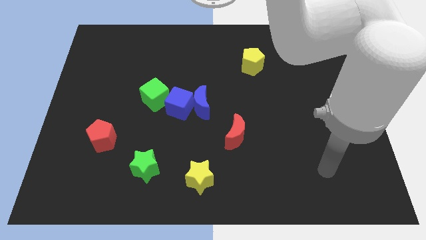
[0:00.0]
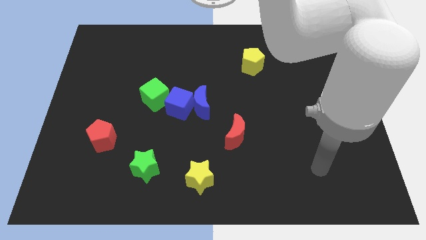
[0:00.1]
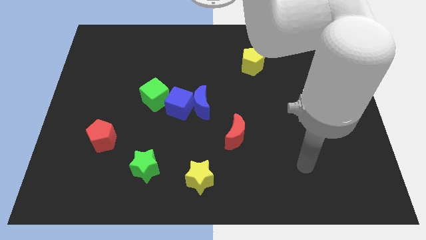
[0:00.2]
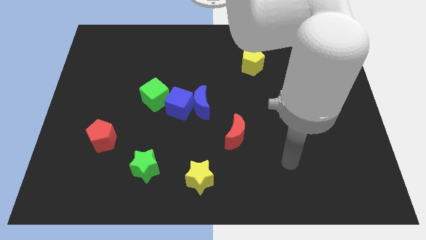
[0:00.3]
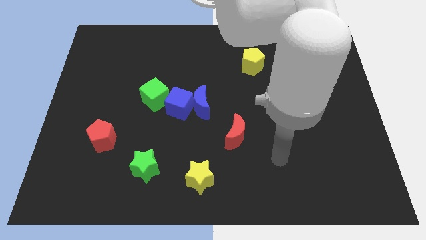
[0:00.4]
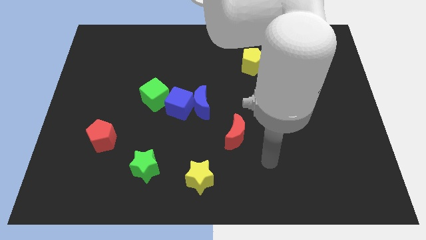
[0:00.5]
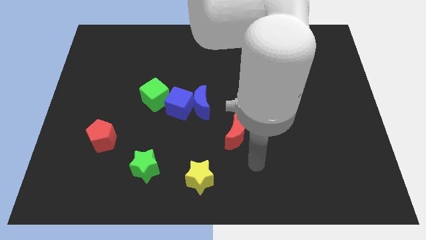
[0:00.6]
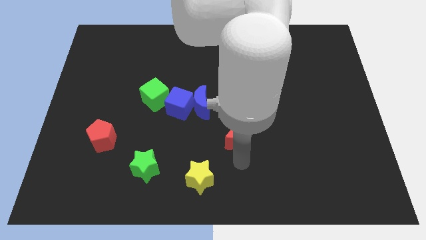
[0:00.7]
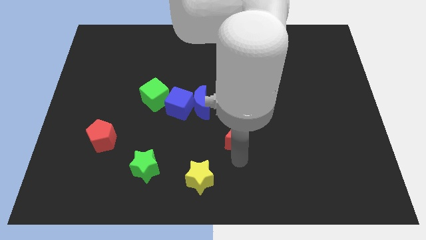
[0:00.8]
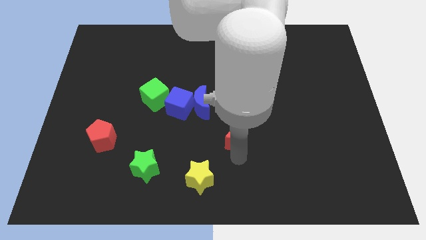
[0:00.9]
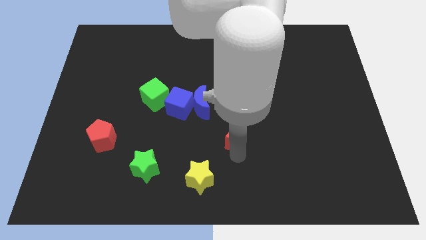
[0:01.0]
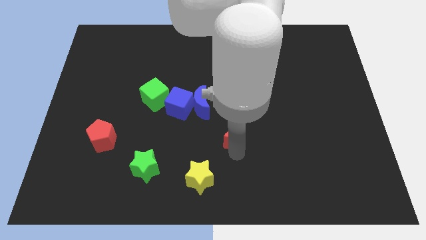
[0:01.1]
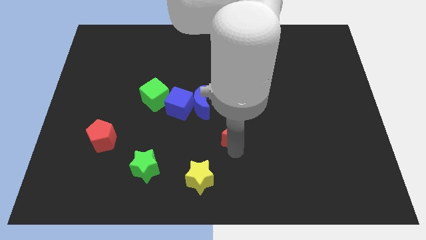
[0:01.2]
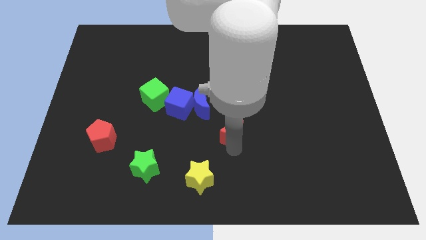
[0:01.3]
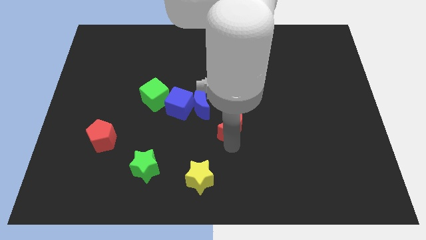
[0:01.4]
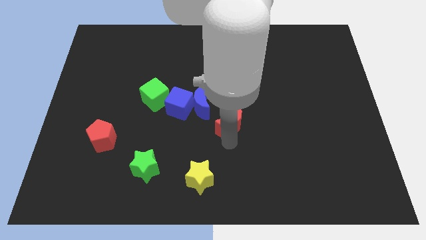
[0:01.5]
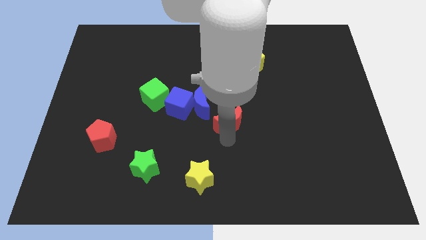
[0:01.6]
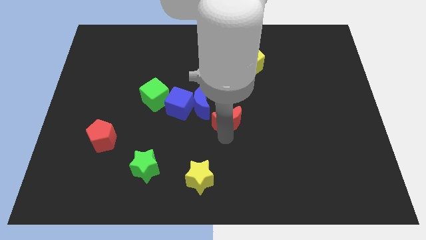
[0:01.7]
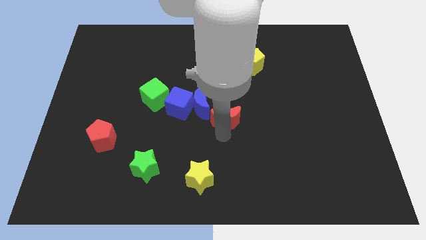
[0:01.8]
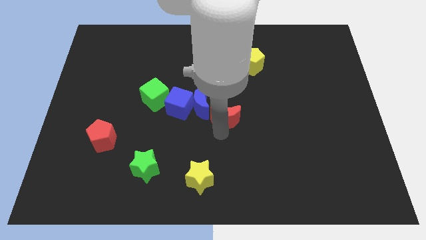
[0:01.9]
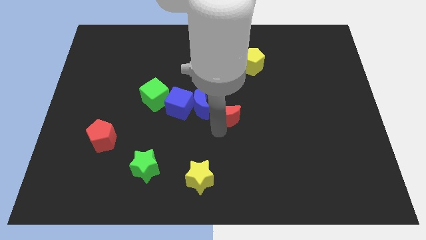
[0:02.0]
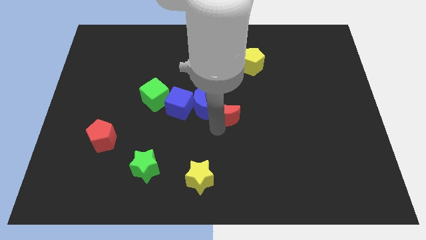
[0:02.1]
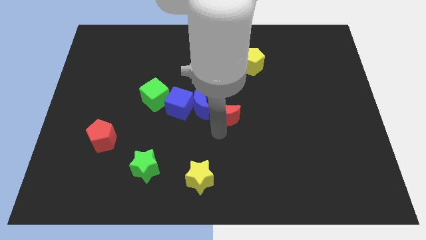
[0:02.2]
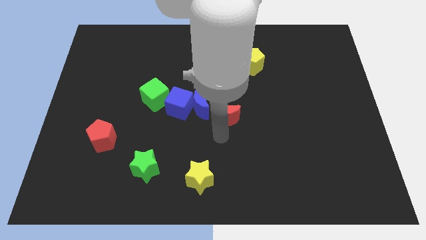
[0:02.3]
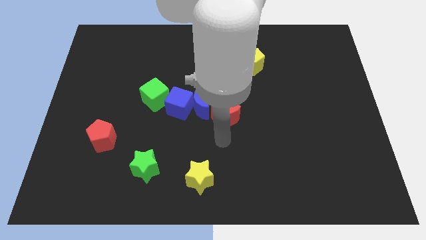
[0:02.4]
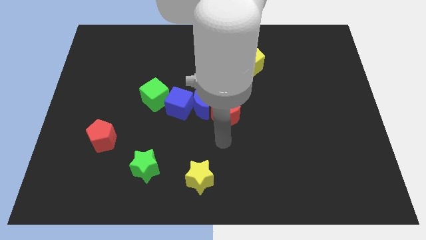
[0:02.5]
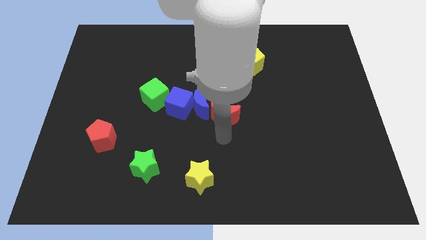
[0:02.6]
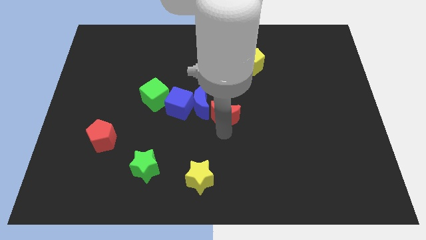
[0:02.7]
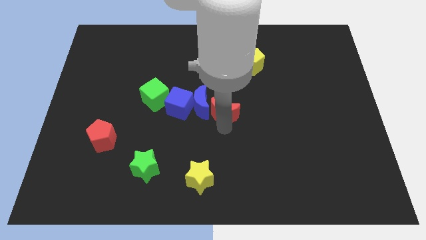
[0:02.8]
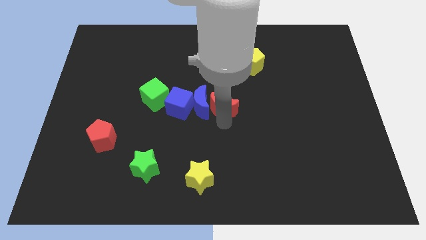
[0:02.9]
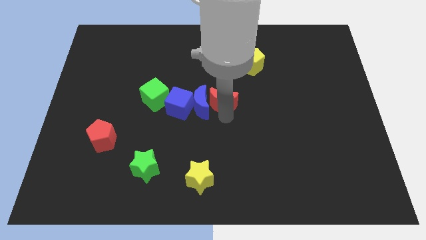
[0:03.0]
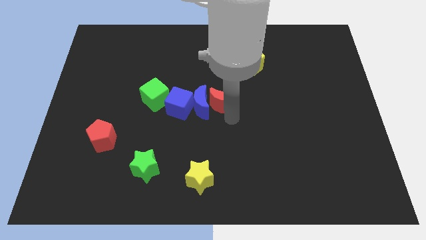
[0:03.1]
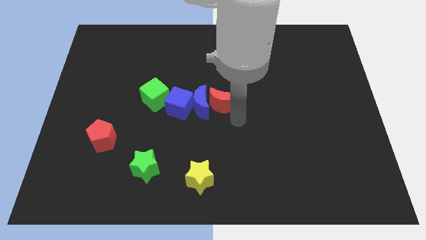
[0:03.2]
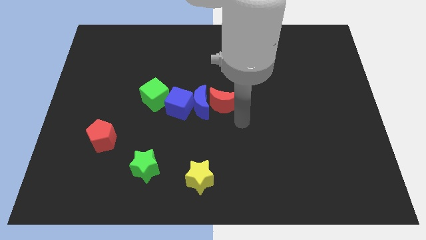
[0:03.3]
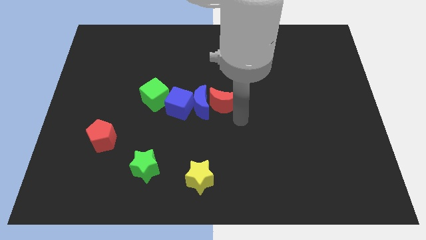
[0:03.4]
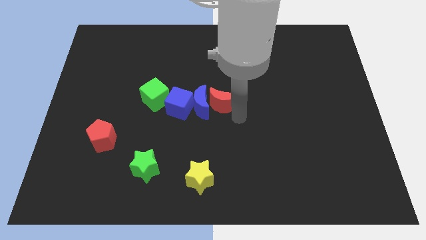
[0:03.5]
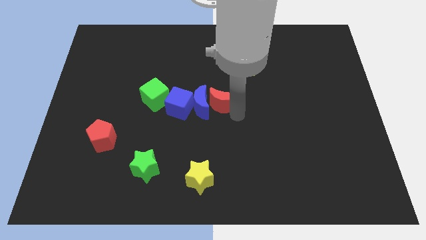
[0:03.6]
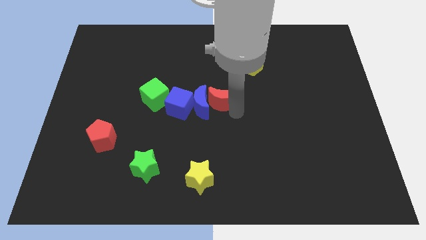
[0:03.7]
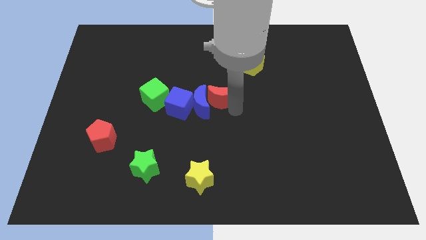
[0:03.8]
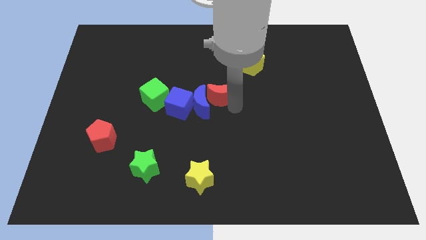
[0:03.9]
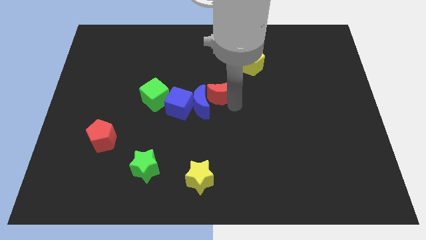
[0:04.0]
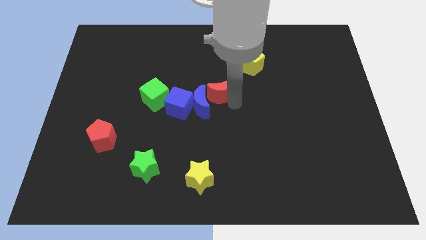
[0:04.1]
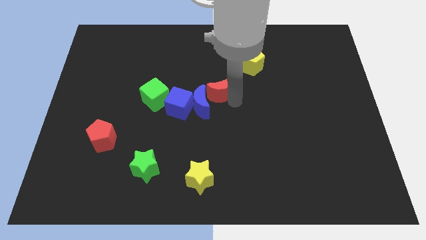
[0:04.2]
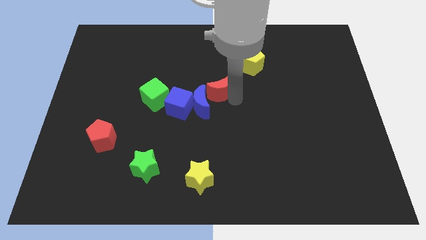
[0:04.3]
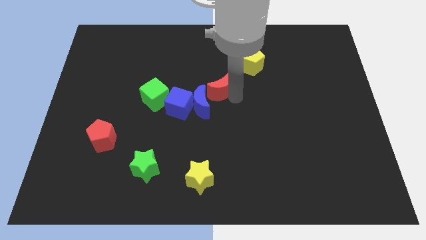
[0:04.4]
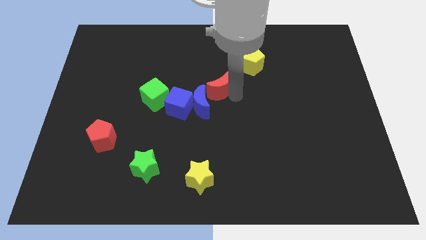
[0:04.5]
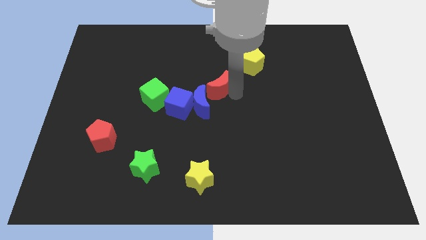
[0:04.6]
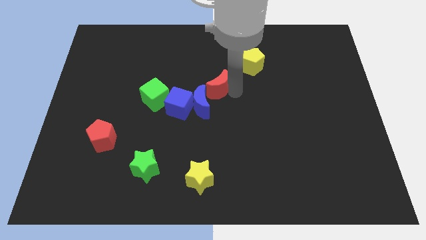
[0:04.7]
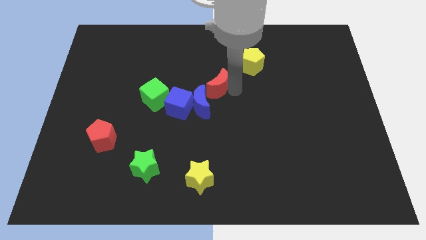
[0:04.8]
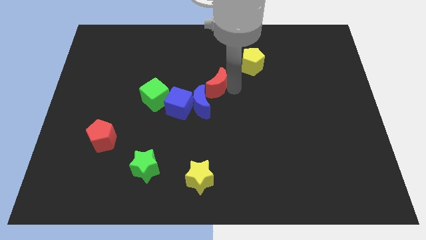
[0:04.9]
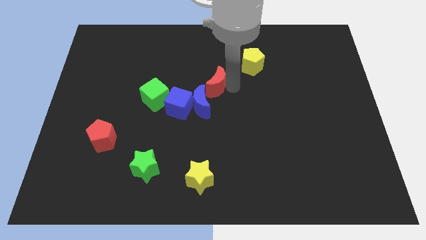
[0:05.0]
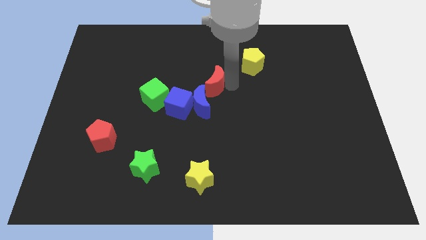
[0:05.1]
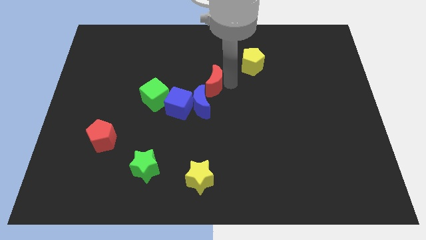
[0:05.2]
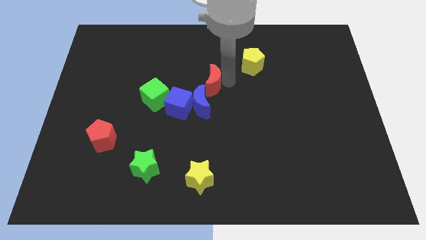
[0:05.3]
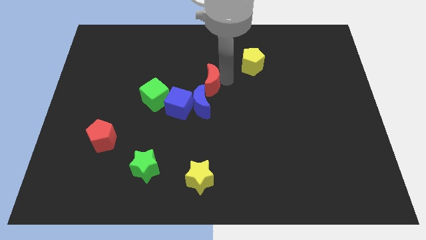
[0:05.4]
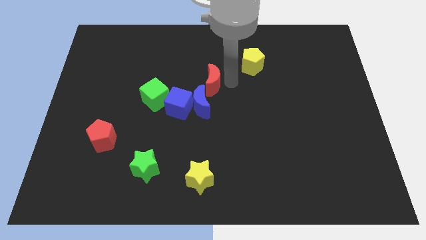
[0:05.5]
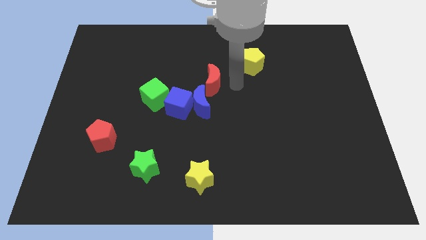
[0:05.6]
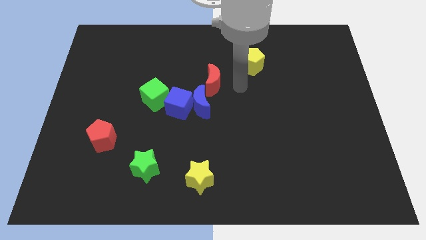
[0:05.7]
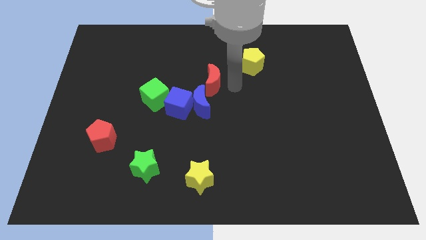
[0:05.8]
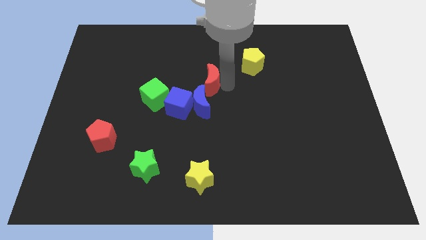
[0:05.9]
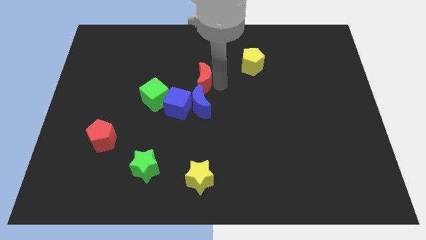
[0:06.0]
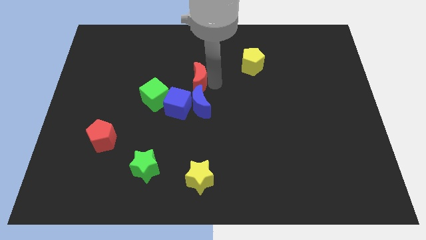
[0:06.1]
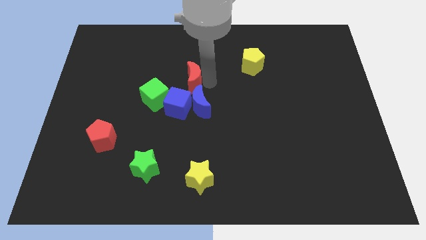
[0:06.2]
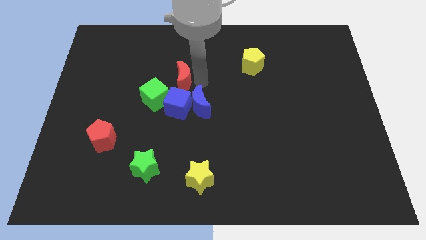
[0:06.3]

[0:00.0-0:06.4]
move the red moon diagonally up and left

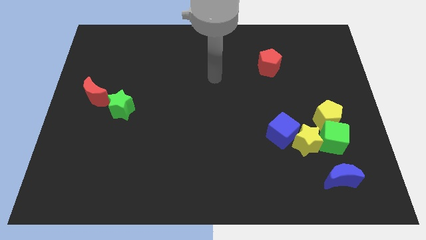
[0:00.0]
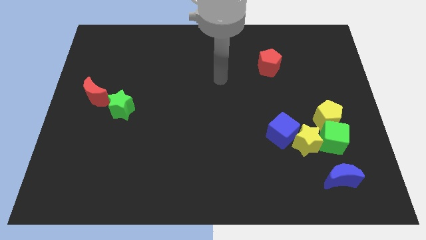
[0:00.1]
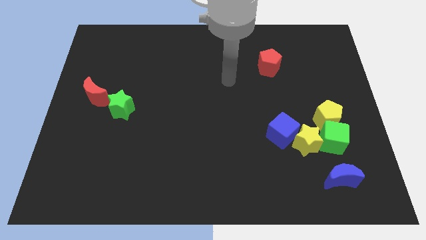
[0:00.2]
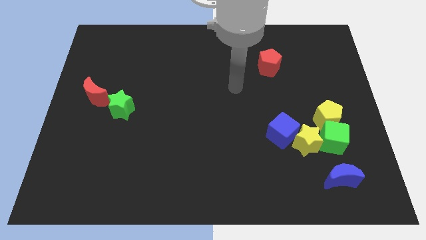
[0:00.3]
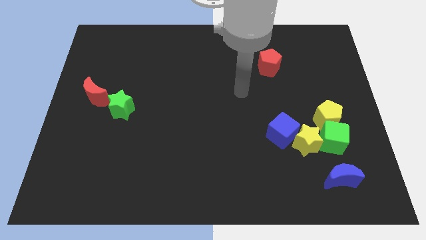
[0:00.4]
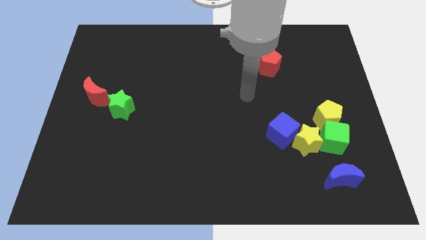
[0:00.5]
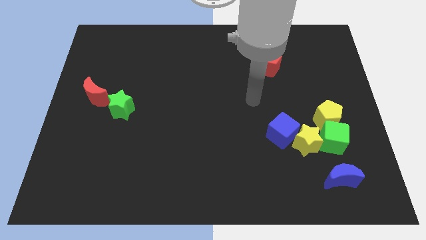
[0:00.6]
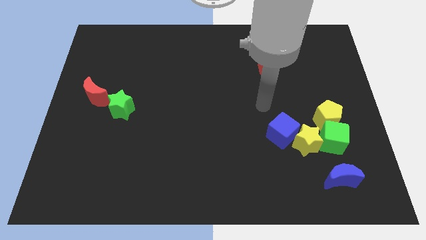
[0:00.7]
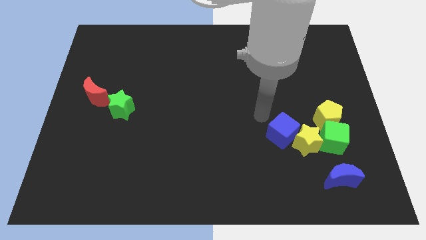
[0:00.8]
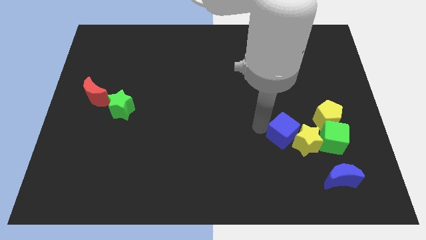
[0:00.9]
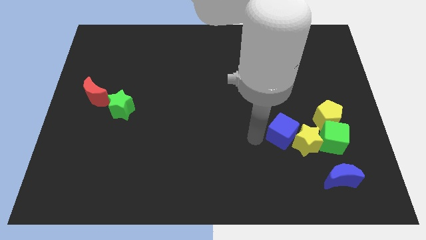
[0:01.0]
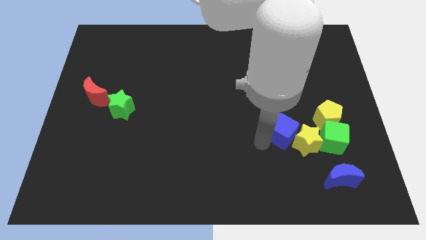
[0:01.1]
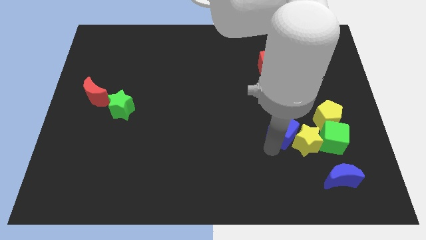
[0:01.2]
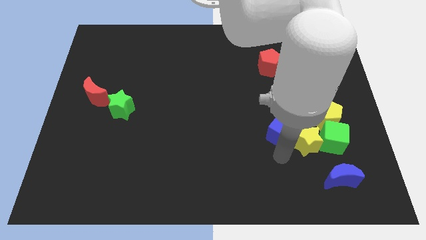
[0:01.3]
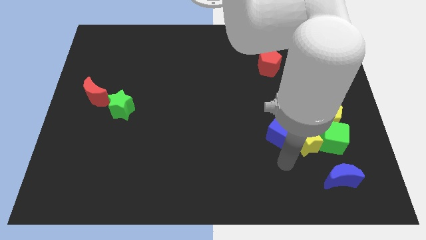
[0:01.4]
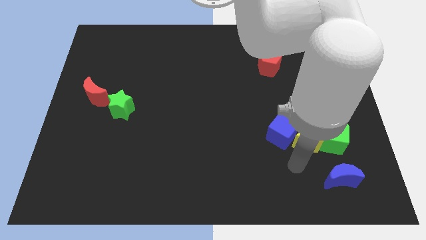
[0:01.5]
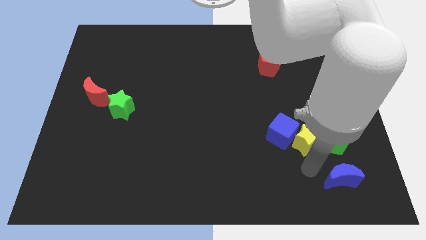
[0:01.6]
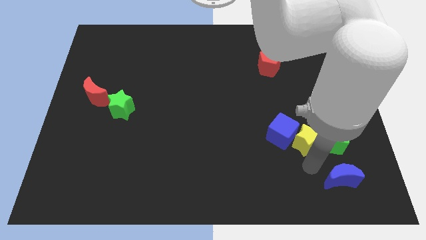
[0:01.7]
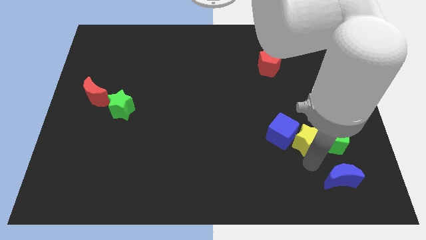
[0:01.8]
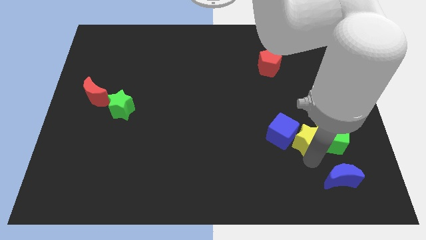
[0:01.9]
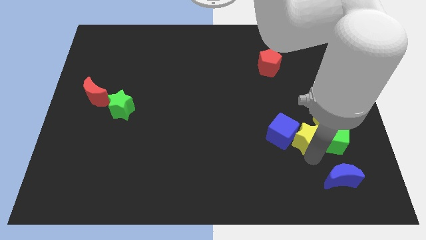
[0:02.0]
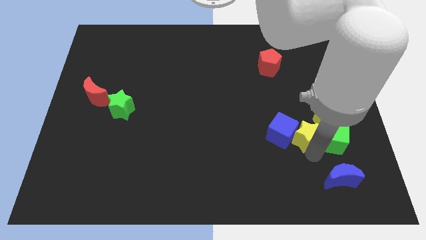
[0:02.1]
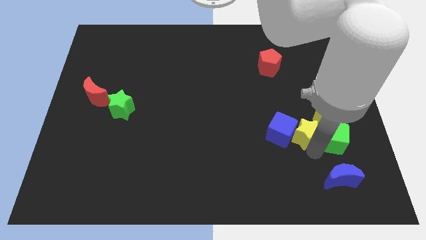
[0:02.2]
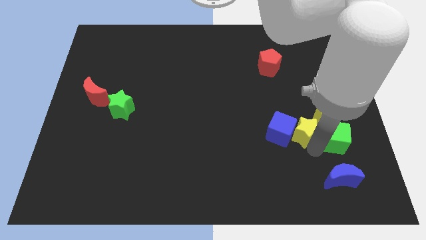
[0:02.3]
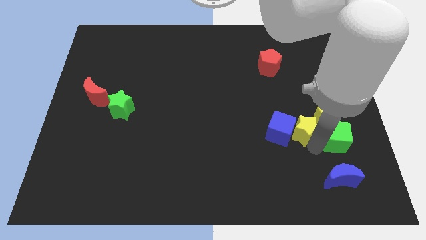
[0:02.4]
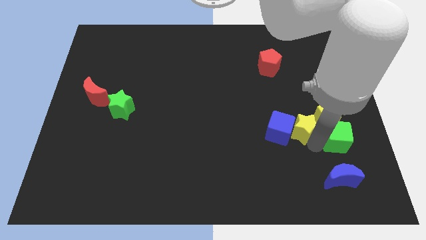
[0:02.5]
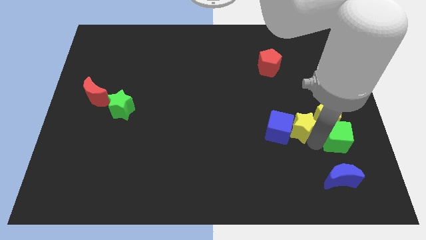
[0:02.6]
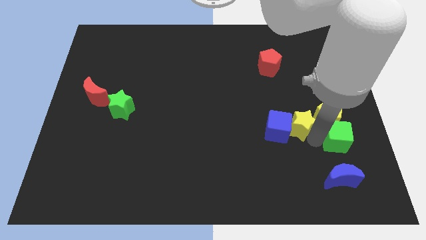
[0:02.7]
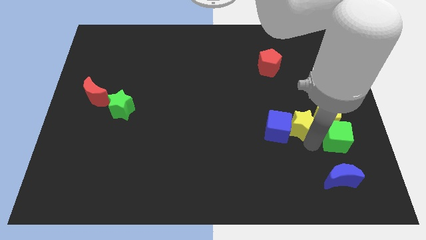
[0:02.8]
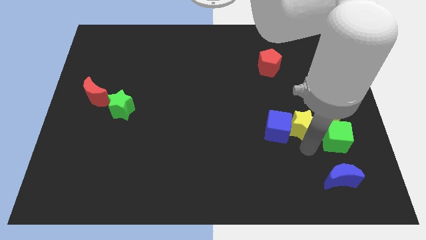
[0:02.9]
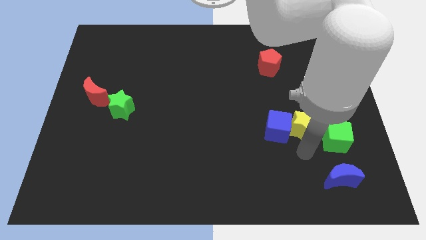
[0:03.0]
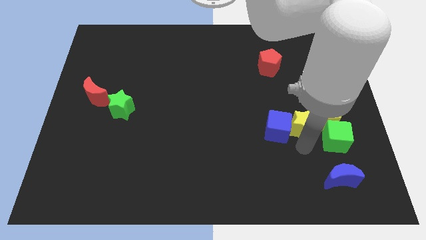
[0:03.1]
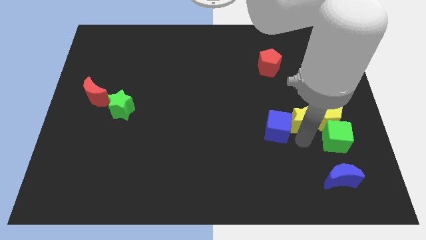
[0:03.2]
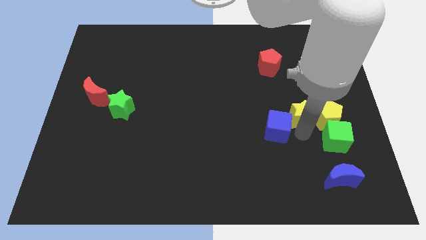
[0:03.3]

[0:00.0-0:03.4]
move the yellow star a bit upwards
